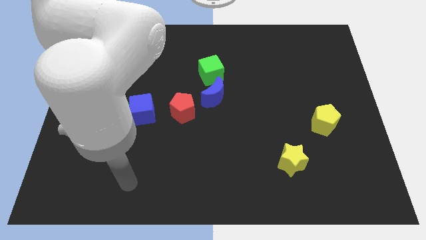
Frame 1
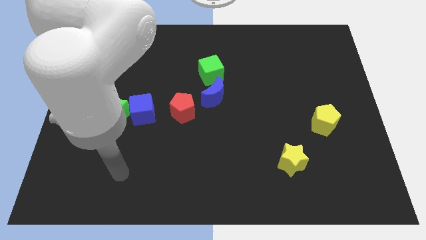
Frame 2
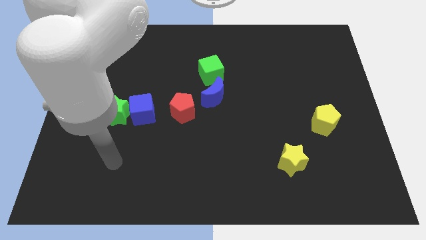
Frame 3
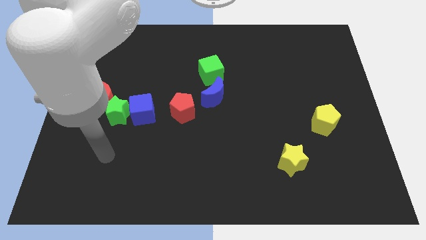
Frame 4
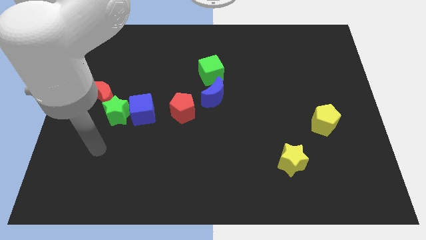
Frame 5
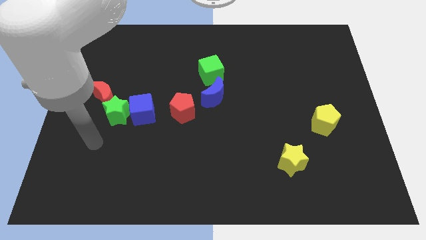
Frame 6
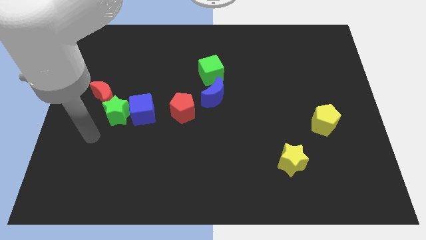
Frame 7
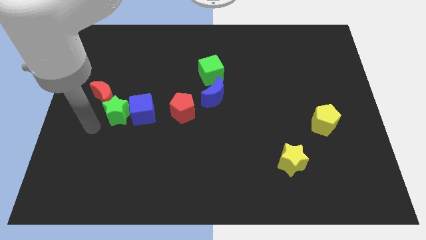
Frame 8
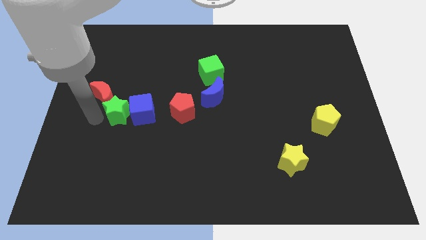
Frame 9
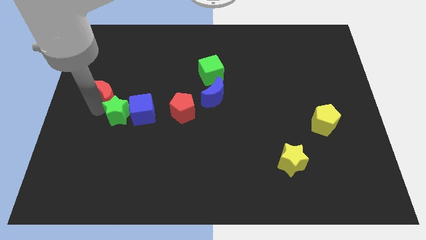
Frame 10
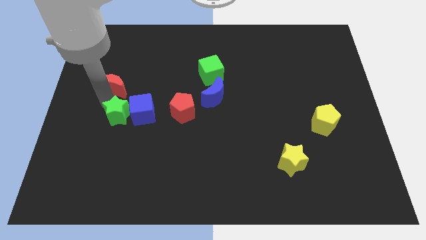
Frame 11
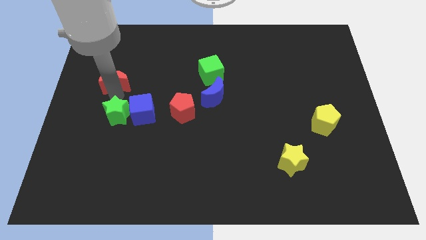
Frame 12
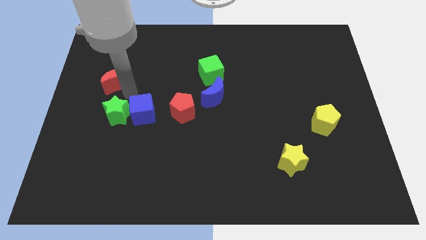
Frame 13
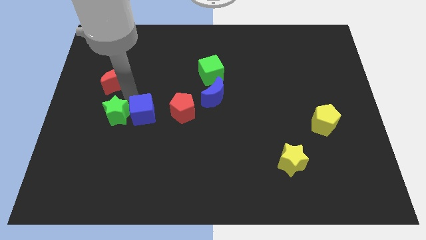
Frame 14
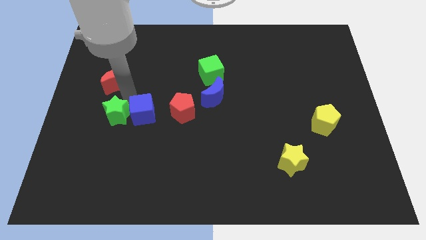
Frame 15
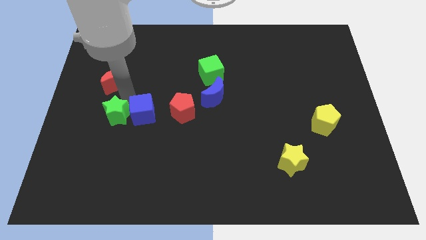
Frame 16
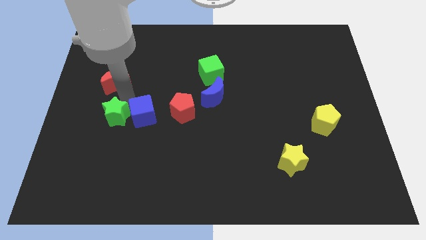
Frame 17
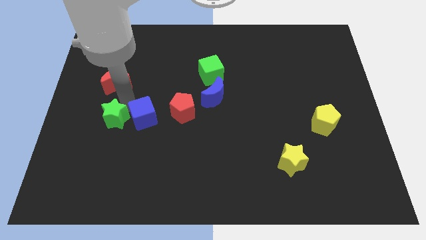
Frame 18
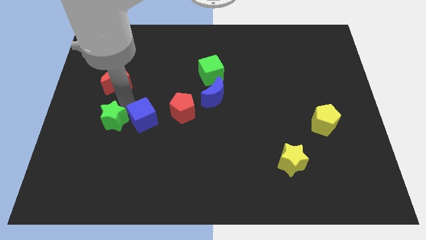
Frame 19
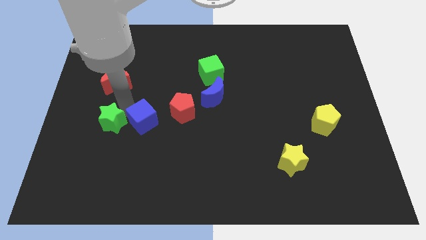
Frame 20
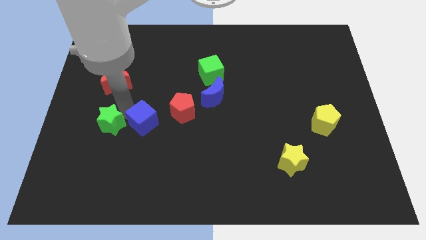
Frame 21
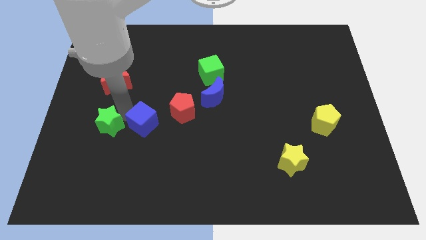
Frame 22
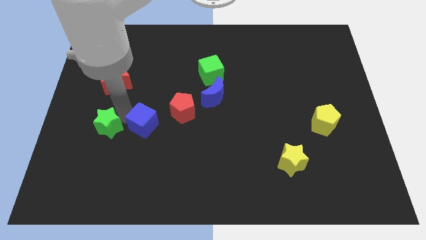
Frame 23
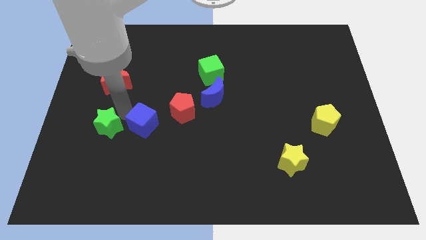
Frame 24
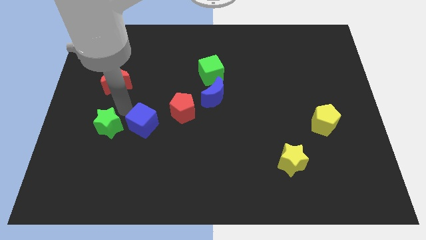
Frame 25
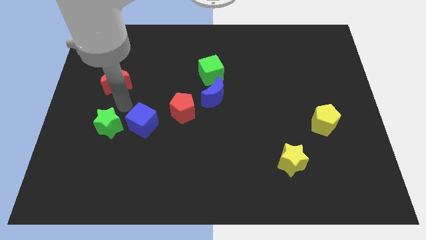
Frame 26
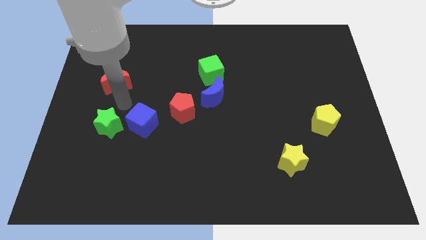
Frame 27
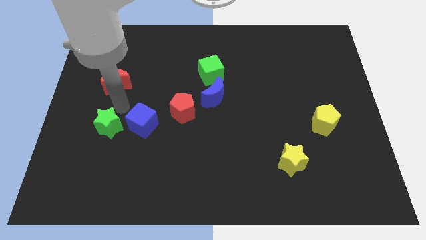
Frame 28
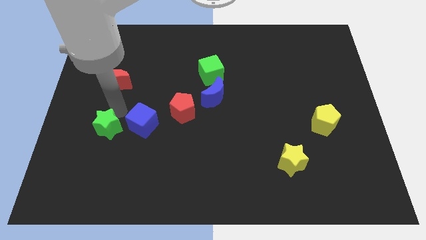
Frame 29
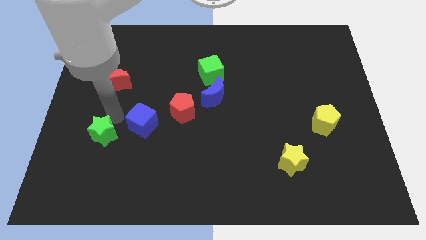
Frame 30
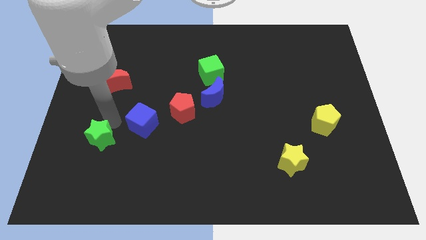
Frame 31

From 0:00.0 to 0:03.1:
pull the green star apart from the blue cube and red moon

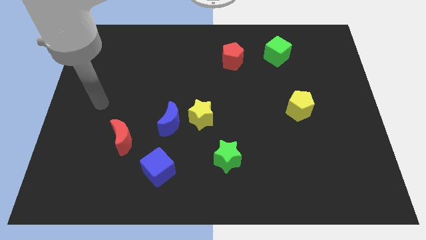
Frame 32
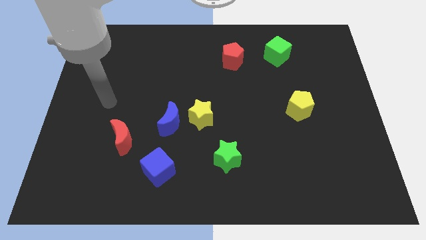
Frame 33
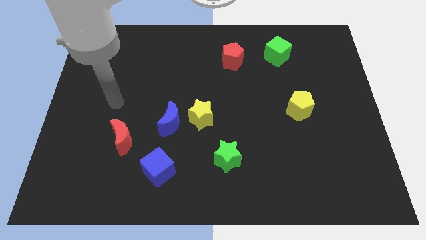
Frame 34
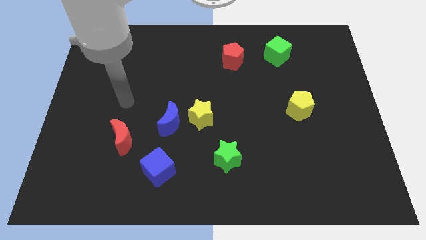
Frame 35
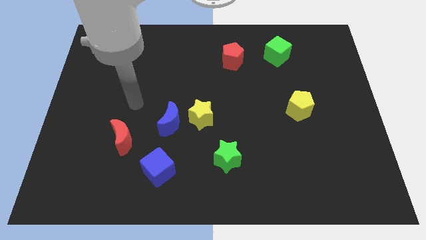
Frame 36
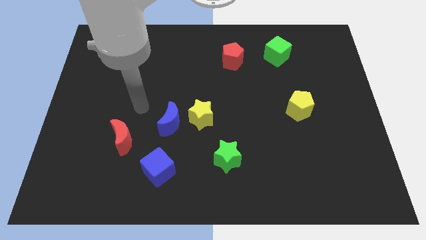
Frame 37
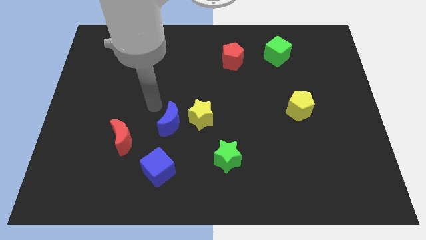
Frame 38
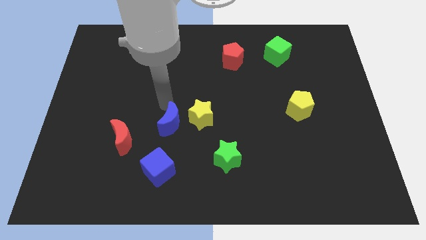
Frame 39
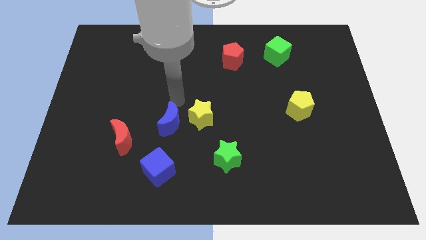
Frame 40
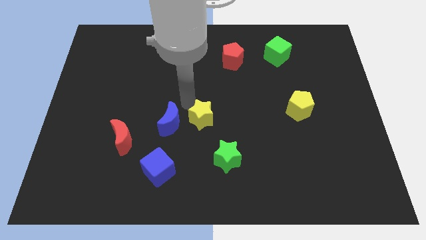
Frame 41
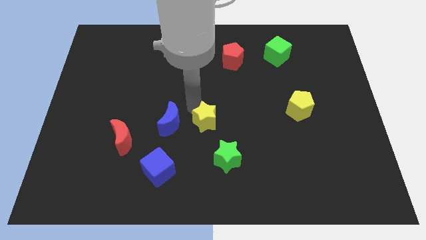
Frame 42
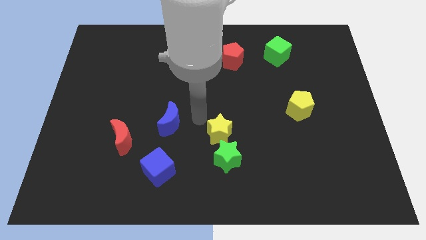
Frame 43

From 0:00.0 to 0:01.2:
pull the blue moon apart from the yellow star

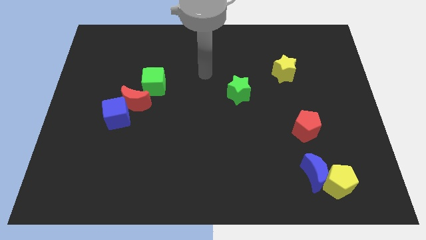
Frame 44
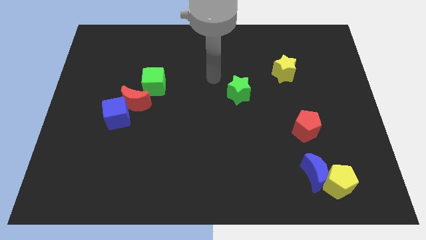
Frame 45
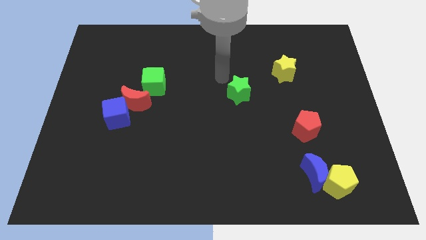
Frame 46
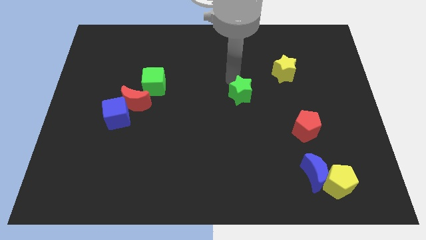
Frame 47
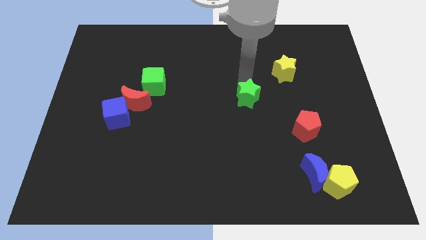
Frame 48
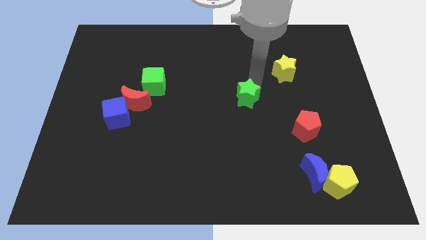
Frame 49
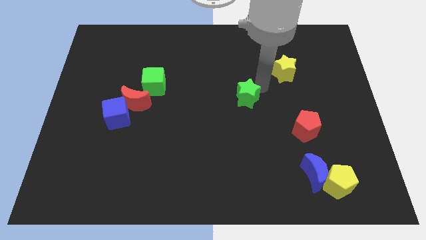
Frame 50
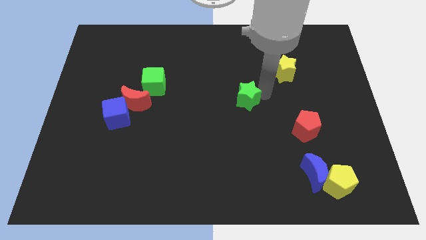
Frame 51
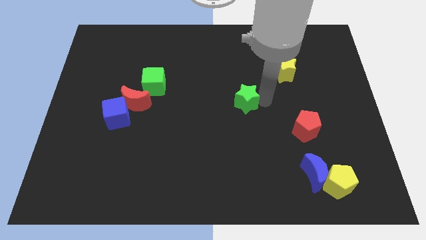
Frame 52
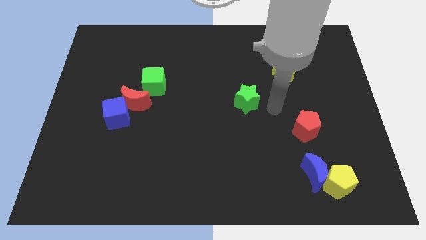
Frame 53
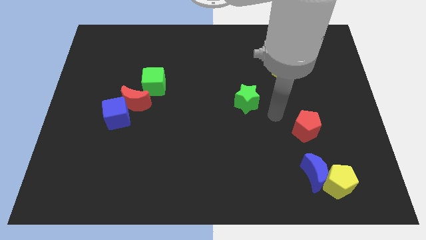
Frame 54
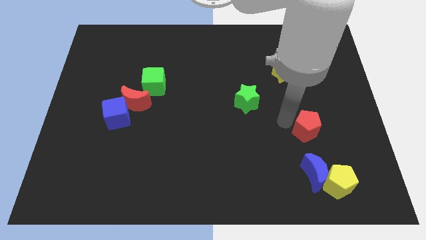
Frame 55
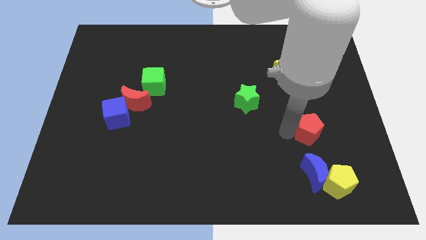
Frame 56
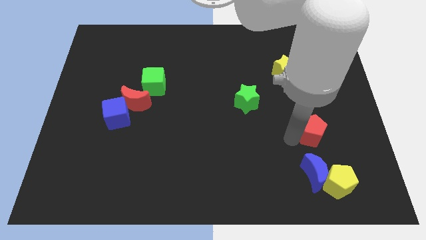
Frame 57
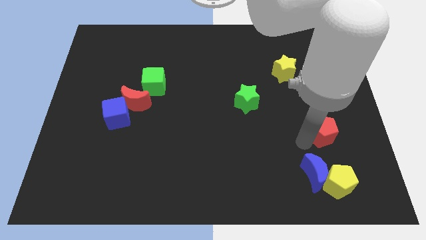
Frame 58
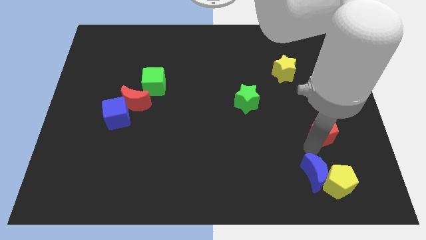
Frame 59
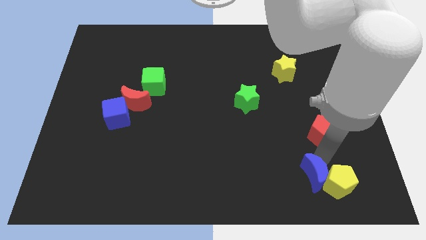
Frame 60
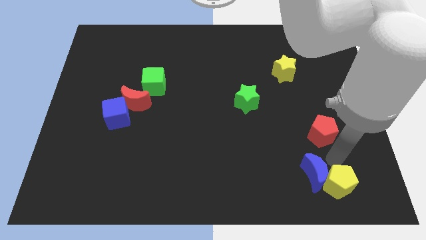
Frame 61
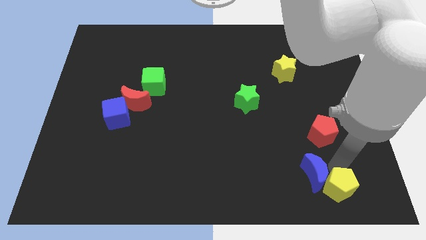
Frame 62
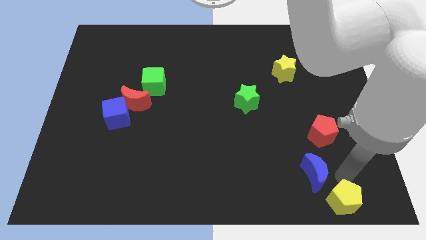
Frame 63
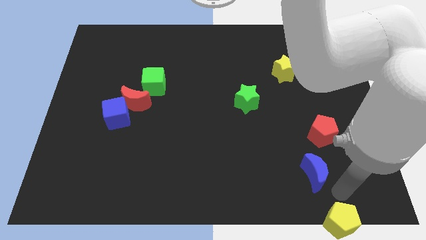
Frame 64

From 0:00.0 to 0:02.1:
separate the blue moon from the yellow pentagon

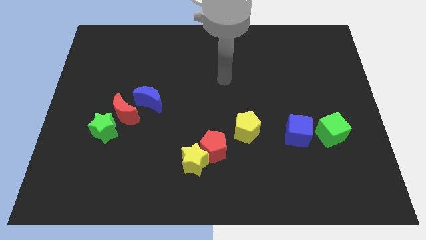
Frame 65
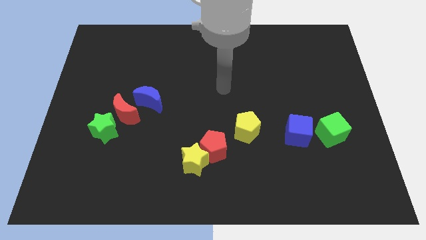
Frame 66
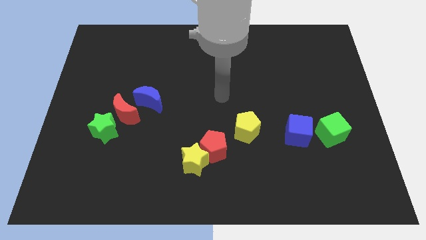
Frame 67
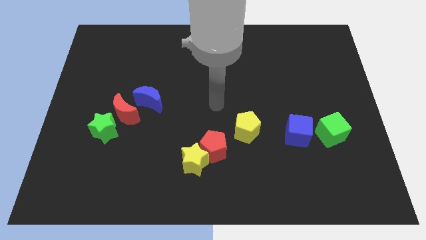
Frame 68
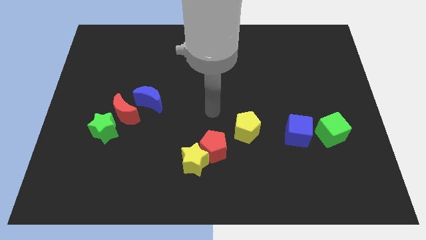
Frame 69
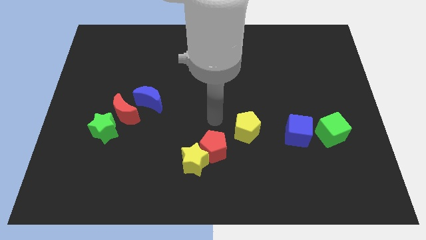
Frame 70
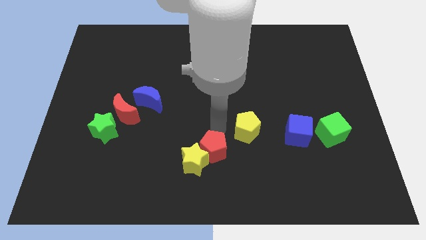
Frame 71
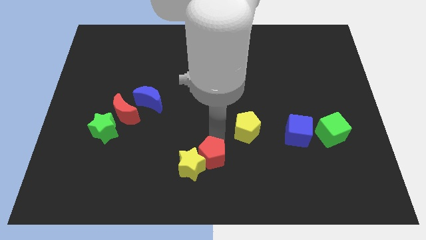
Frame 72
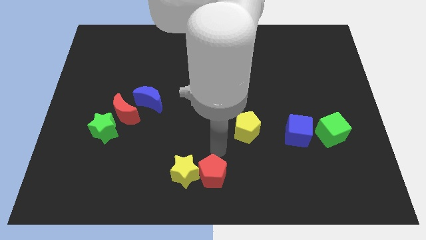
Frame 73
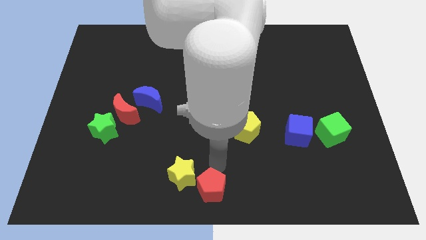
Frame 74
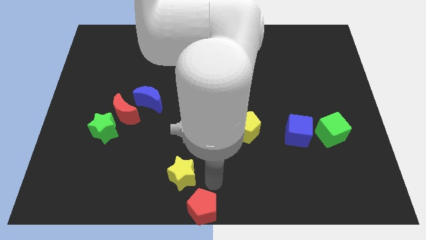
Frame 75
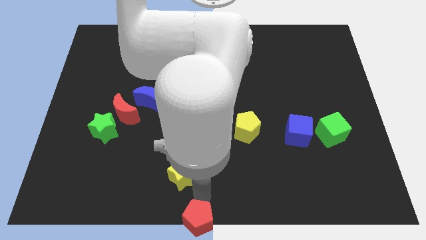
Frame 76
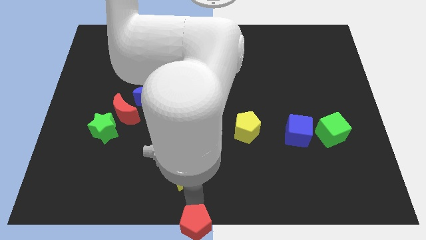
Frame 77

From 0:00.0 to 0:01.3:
move the yellow star away from the red pentagon

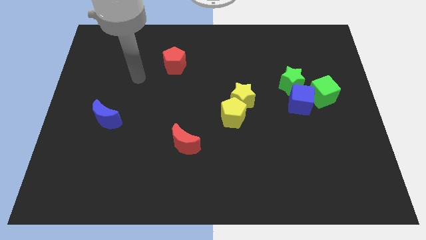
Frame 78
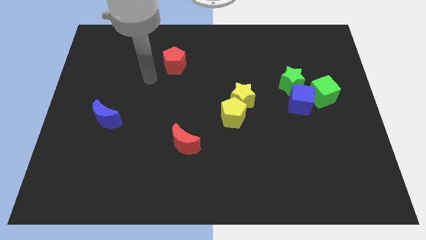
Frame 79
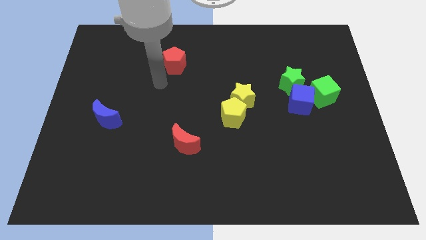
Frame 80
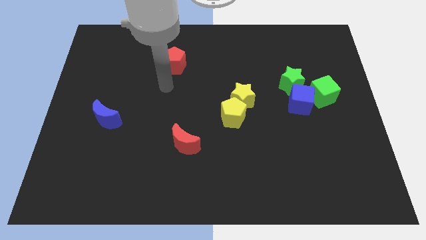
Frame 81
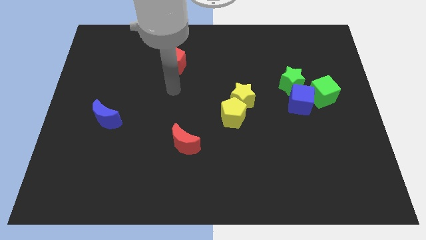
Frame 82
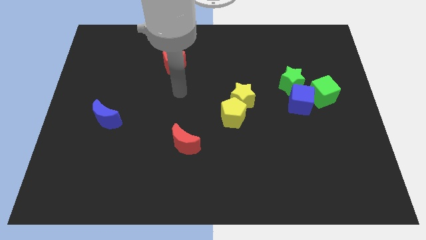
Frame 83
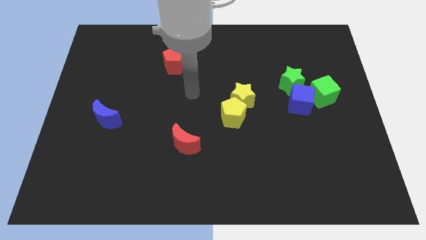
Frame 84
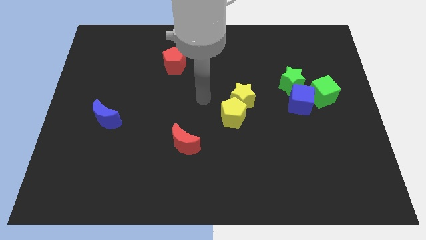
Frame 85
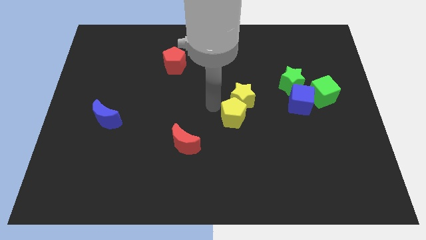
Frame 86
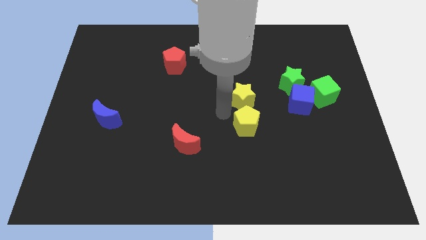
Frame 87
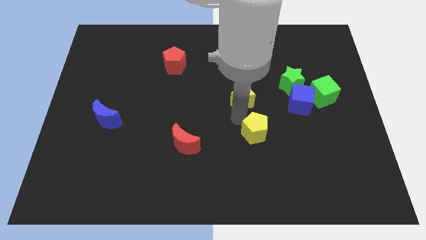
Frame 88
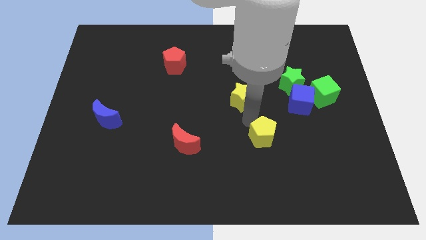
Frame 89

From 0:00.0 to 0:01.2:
move the yellow star away from the yellow pentagon

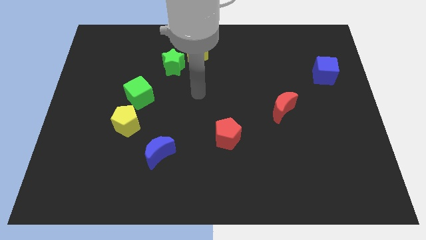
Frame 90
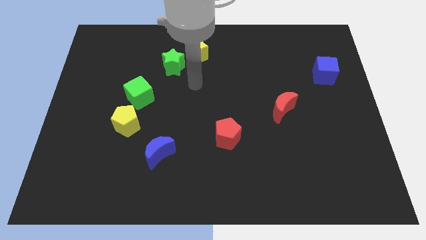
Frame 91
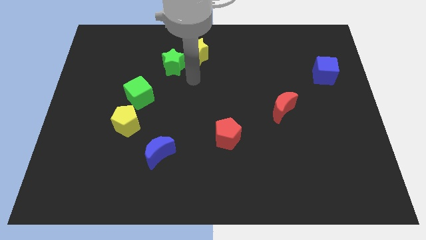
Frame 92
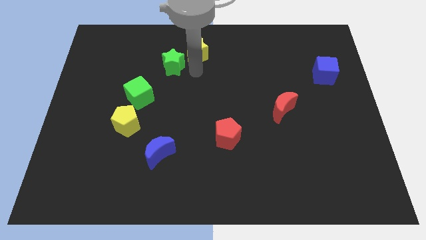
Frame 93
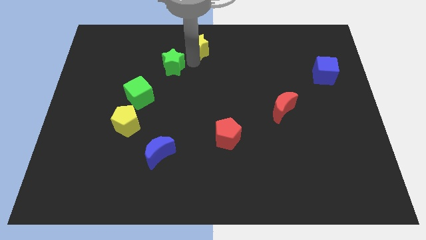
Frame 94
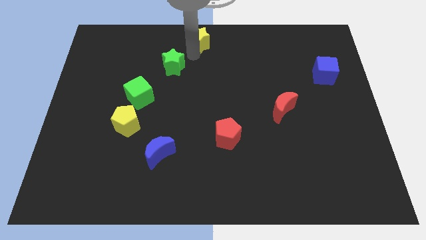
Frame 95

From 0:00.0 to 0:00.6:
move the green star away from the yellow star

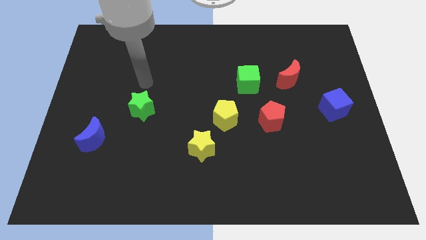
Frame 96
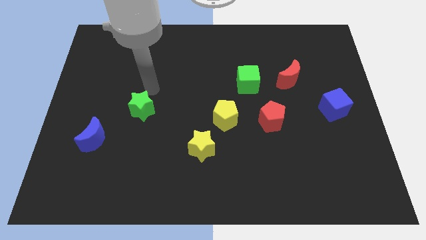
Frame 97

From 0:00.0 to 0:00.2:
pull the yellow star apart from the yellow pentagon
